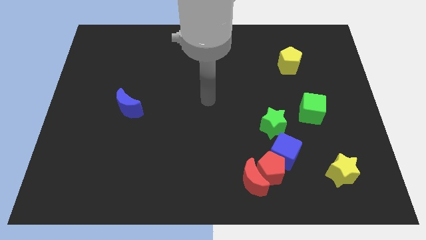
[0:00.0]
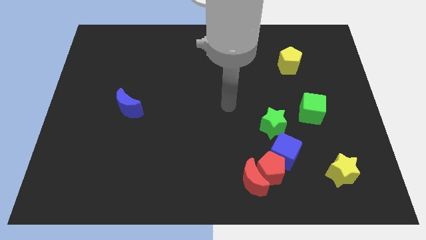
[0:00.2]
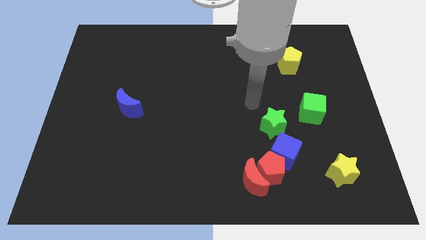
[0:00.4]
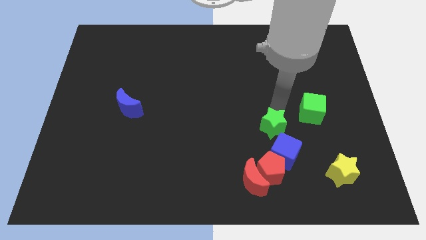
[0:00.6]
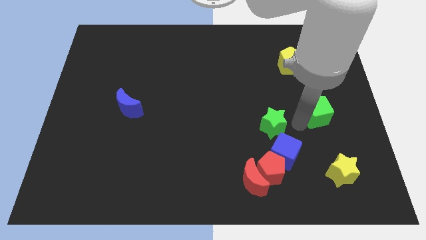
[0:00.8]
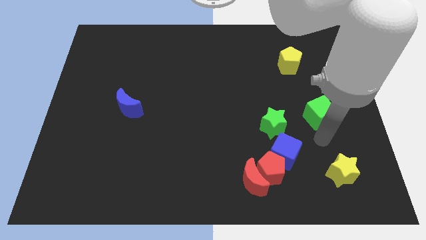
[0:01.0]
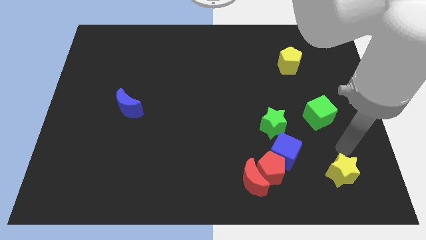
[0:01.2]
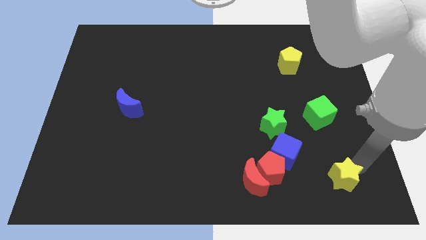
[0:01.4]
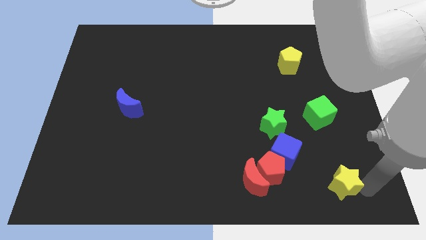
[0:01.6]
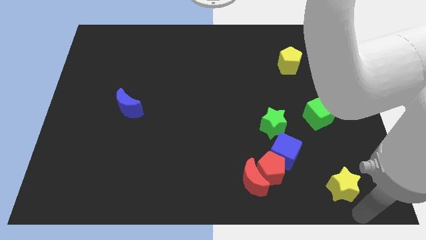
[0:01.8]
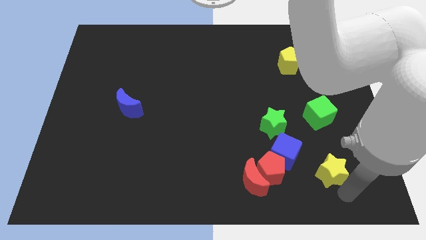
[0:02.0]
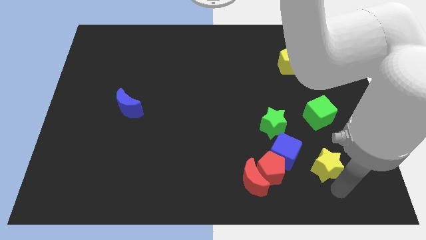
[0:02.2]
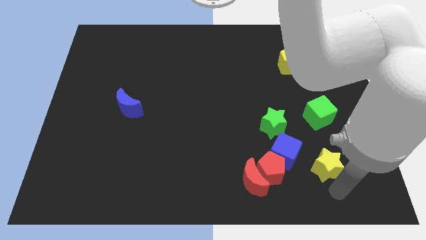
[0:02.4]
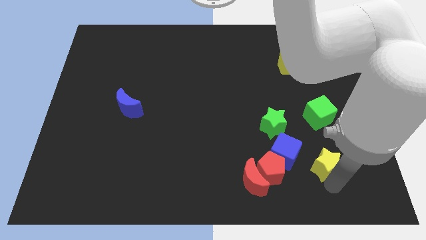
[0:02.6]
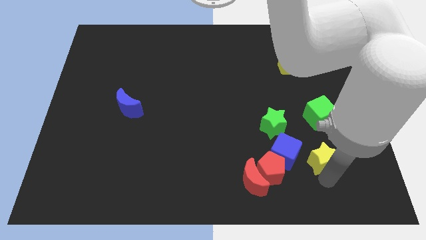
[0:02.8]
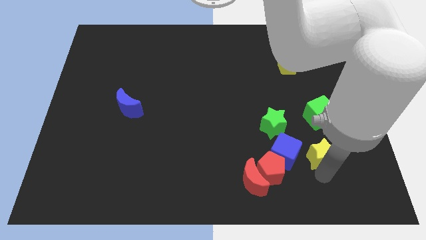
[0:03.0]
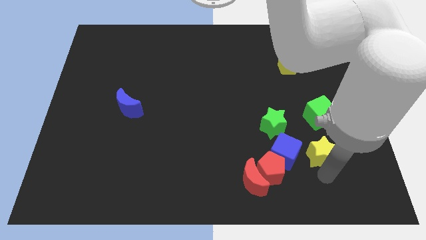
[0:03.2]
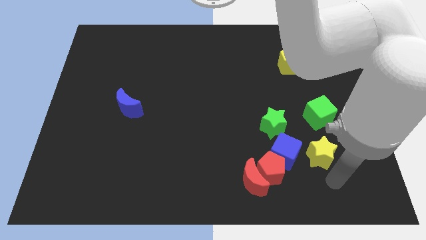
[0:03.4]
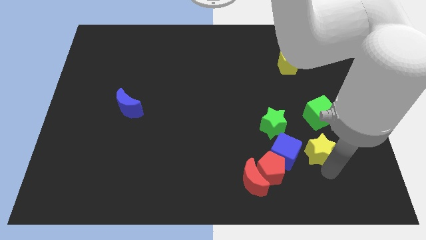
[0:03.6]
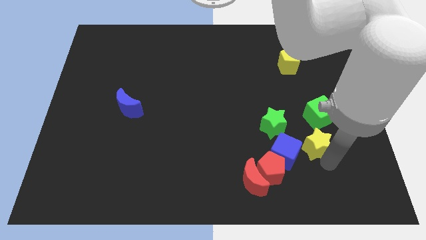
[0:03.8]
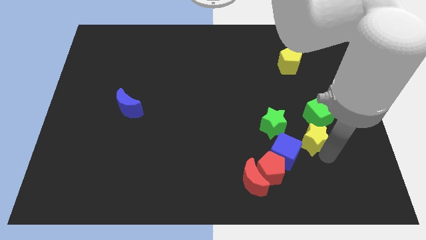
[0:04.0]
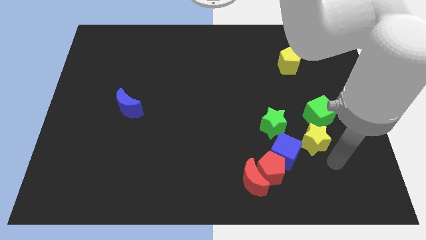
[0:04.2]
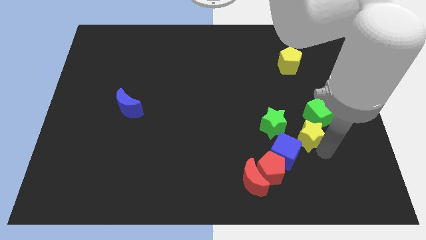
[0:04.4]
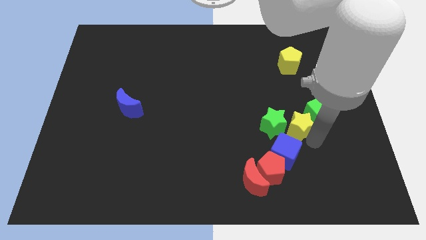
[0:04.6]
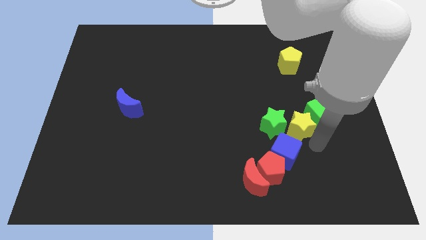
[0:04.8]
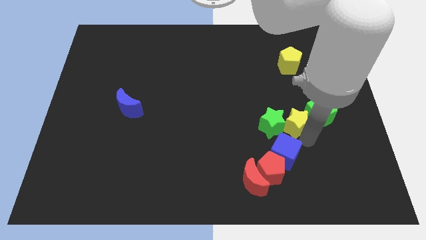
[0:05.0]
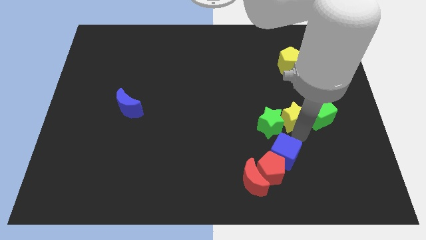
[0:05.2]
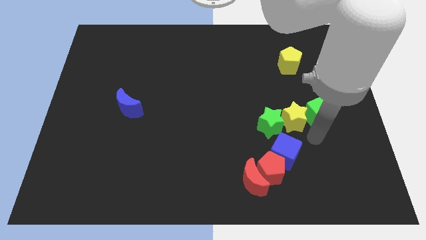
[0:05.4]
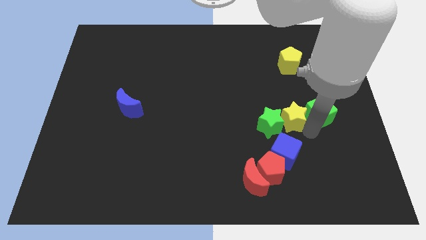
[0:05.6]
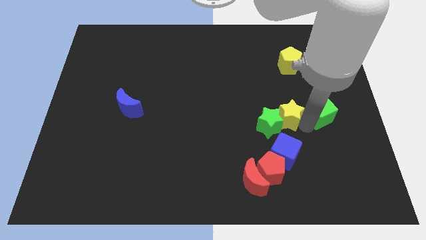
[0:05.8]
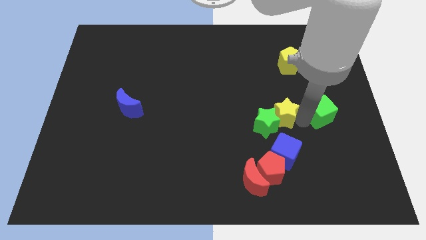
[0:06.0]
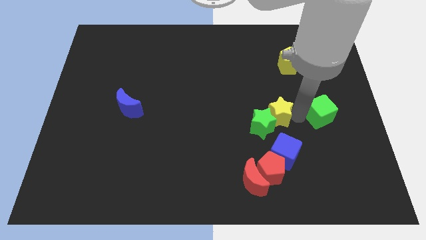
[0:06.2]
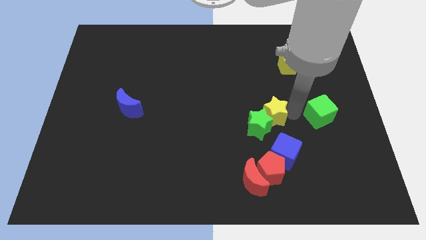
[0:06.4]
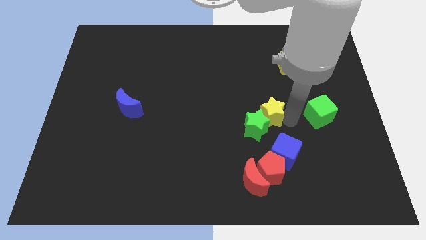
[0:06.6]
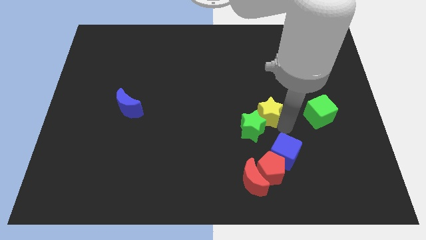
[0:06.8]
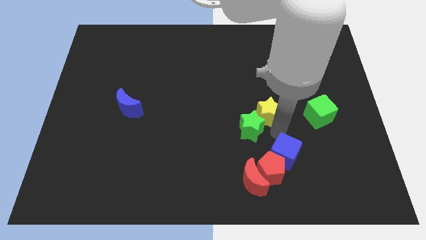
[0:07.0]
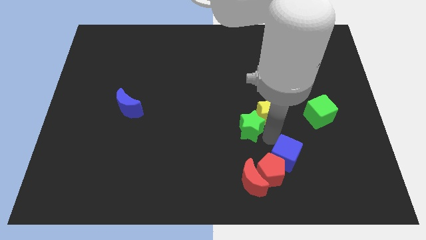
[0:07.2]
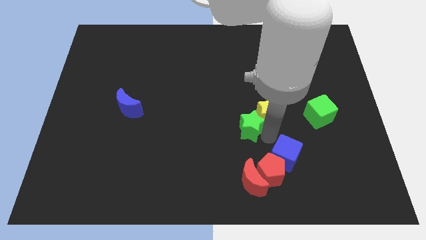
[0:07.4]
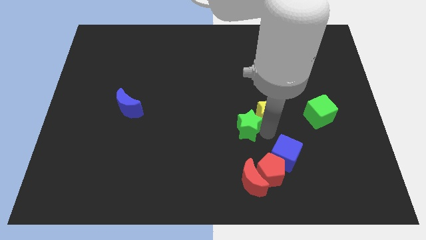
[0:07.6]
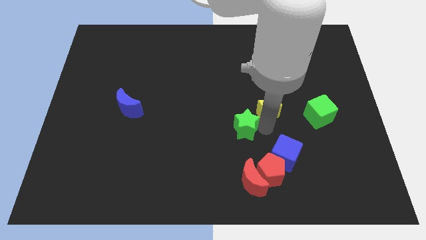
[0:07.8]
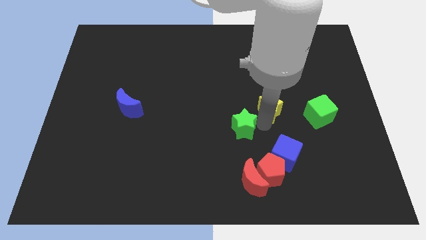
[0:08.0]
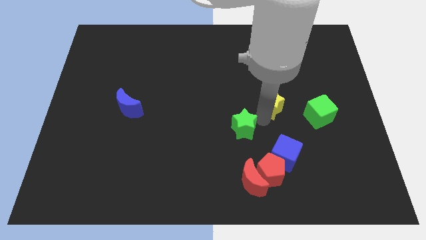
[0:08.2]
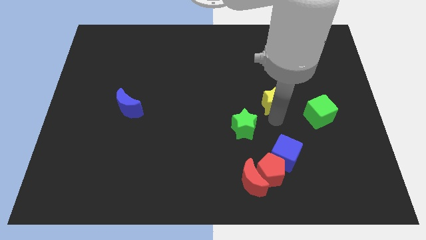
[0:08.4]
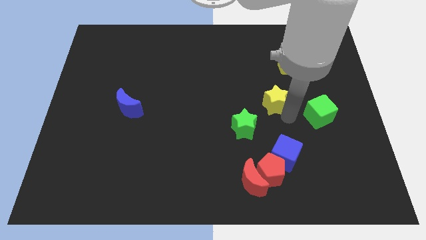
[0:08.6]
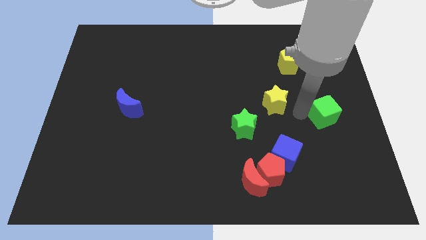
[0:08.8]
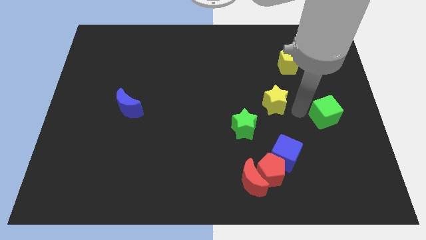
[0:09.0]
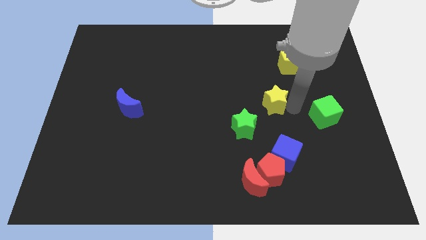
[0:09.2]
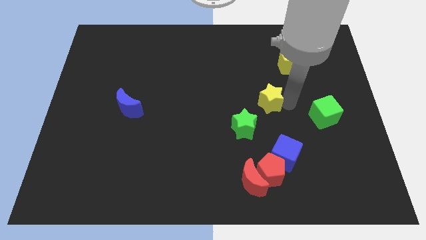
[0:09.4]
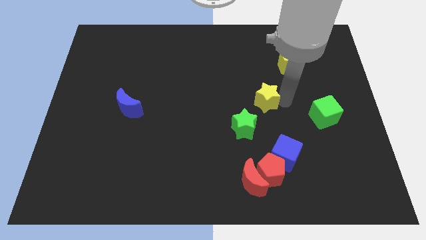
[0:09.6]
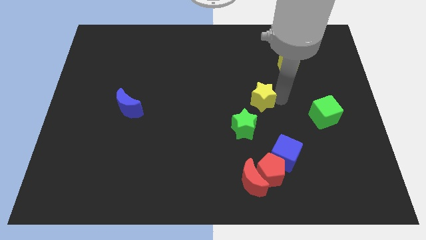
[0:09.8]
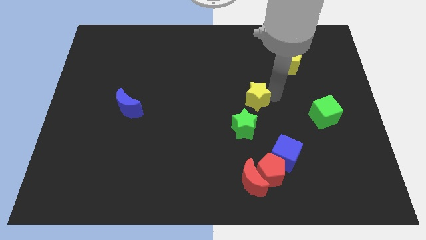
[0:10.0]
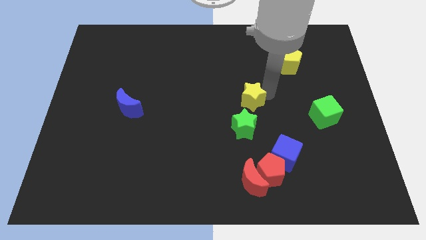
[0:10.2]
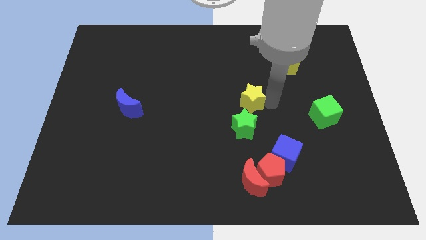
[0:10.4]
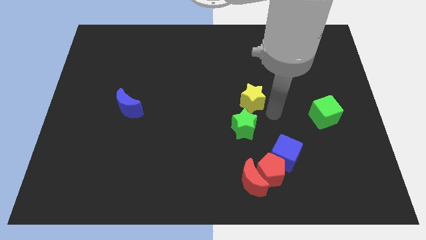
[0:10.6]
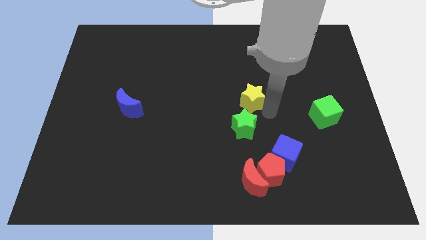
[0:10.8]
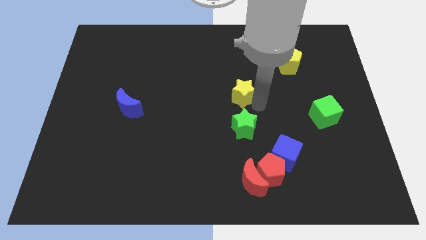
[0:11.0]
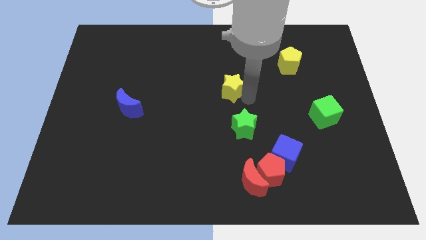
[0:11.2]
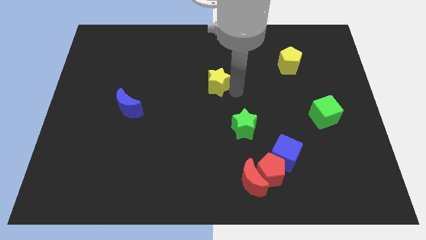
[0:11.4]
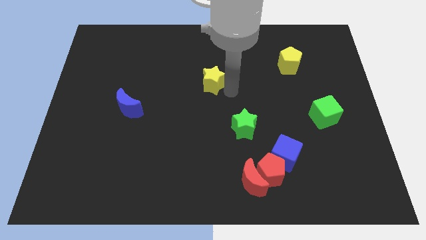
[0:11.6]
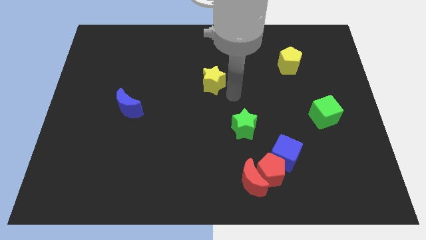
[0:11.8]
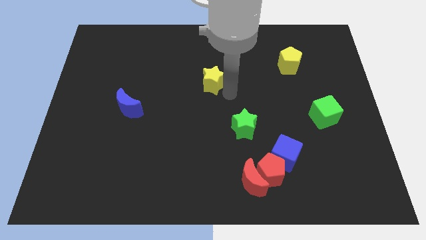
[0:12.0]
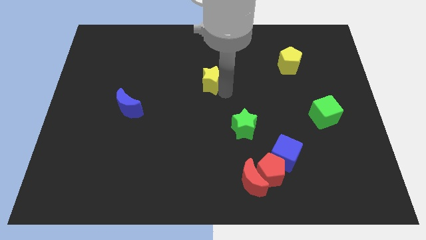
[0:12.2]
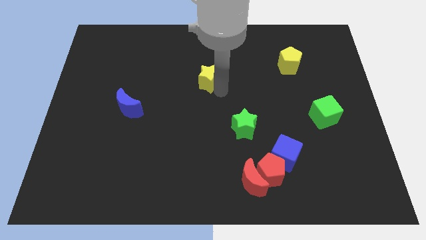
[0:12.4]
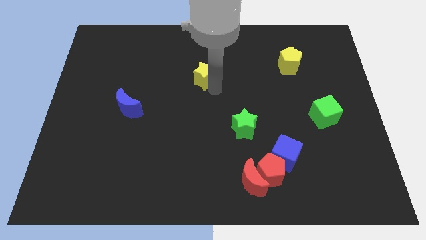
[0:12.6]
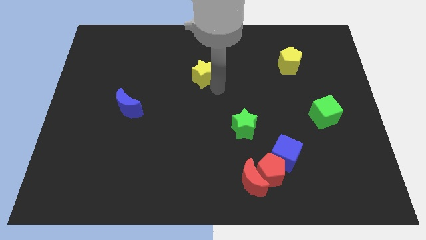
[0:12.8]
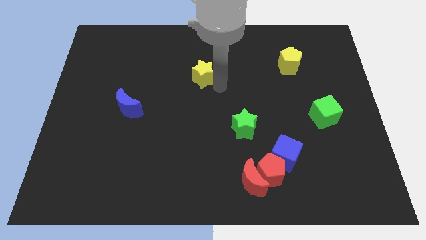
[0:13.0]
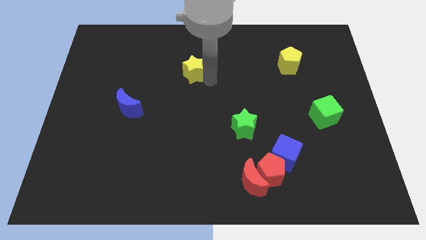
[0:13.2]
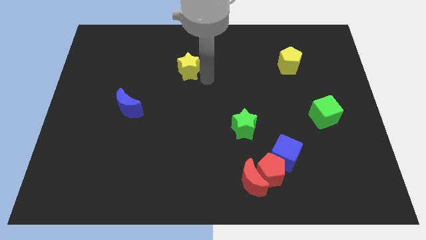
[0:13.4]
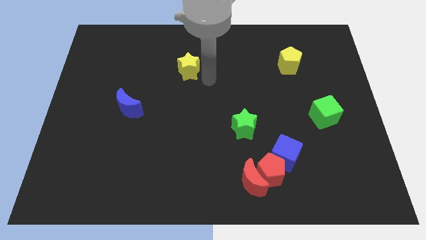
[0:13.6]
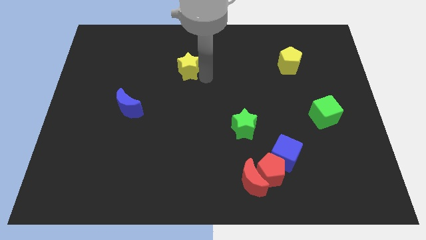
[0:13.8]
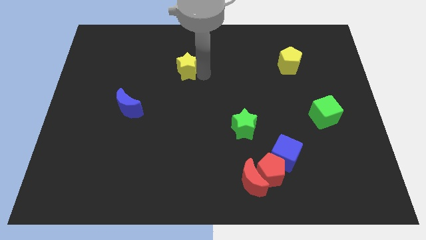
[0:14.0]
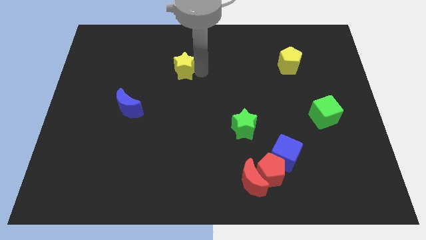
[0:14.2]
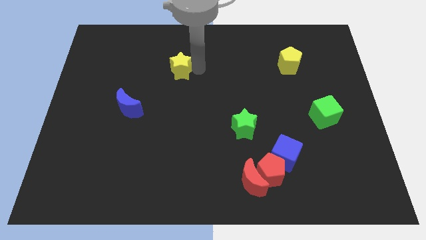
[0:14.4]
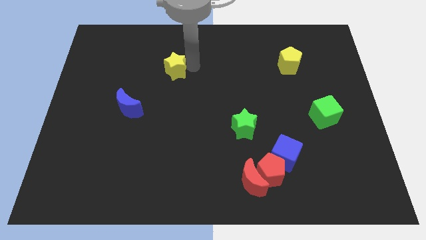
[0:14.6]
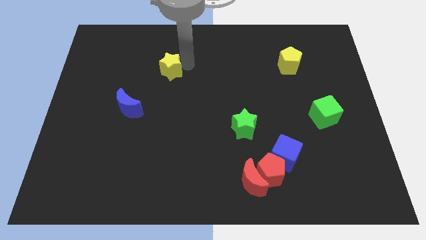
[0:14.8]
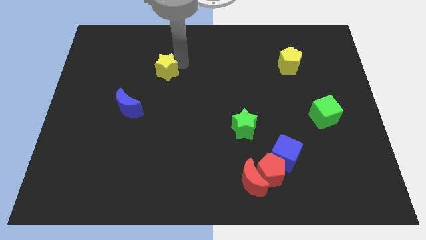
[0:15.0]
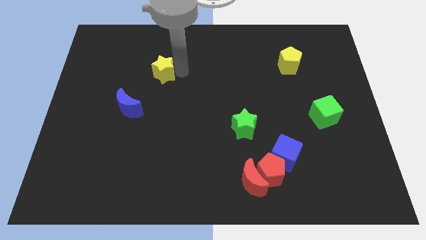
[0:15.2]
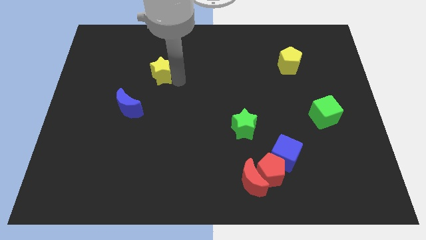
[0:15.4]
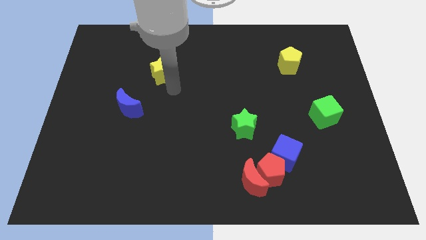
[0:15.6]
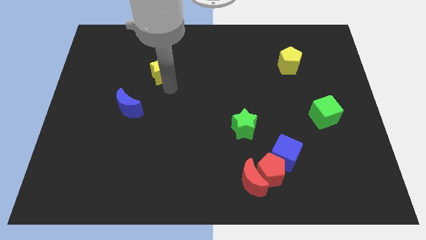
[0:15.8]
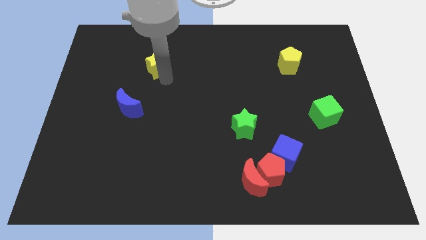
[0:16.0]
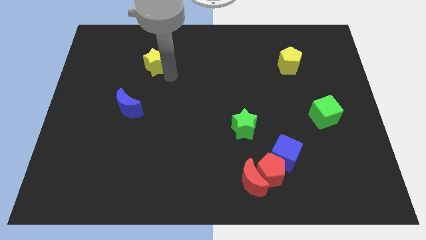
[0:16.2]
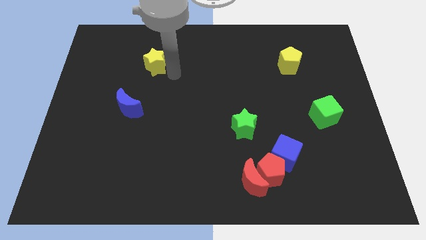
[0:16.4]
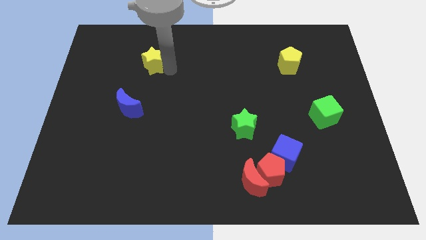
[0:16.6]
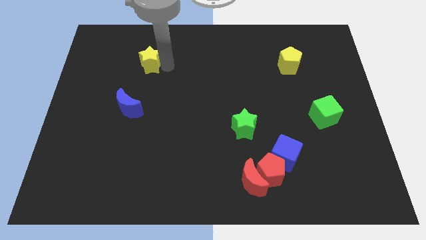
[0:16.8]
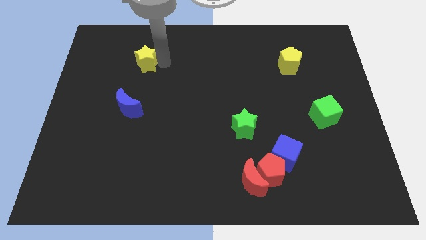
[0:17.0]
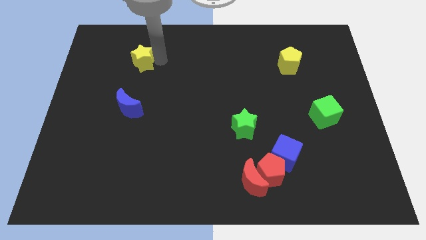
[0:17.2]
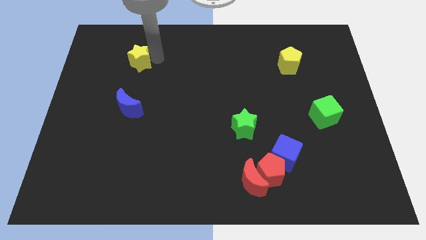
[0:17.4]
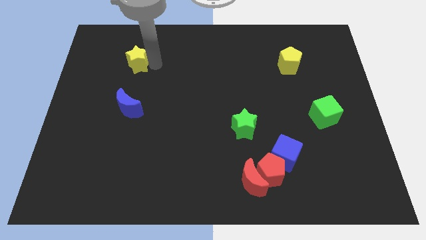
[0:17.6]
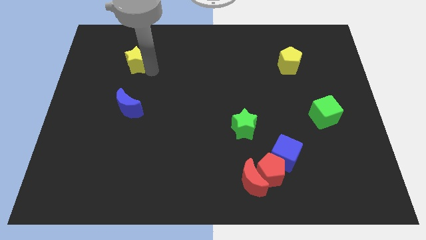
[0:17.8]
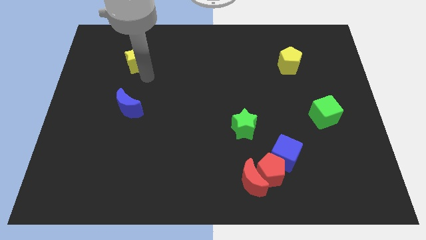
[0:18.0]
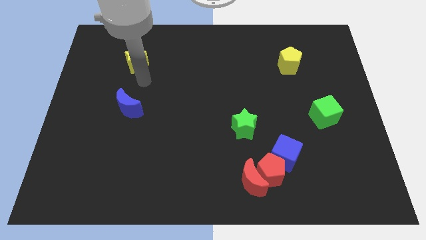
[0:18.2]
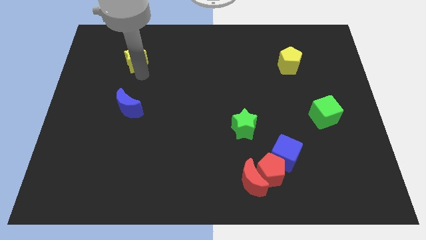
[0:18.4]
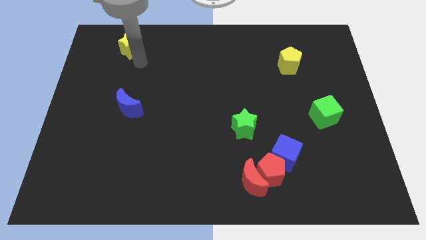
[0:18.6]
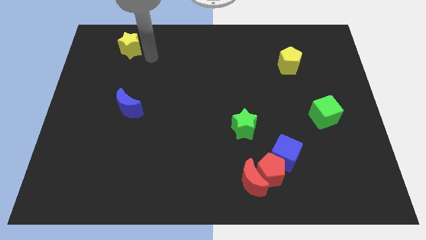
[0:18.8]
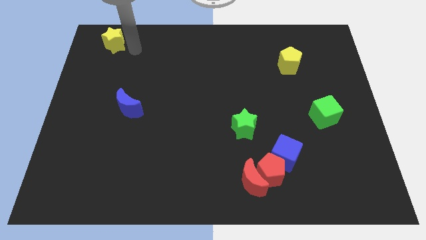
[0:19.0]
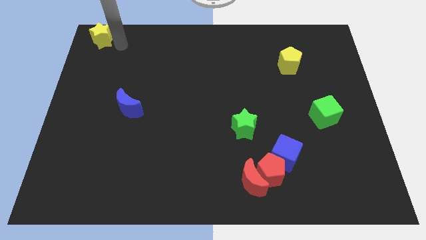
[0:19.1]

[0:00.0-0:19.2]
move the yellow star to the top left of the board
